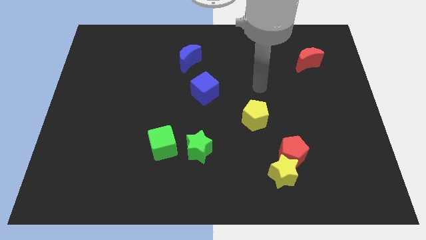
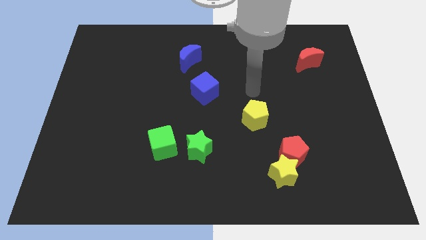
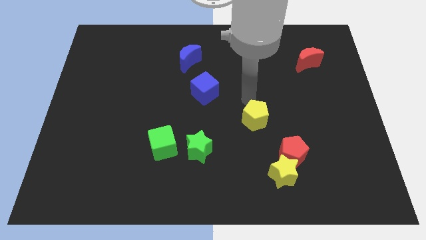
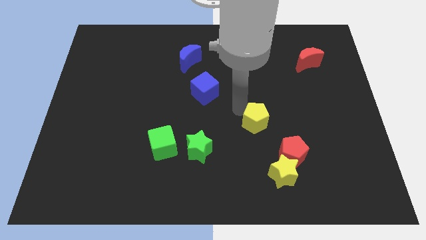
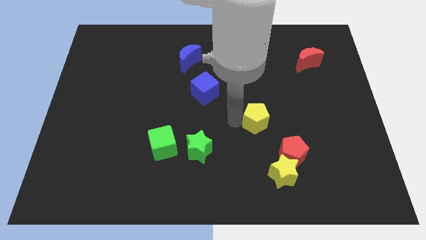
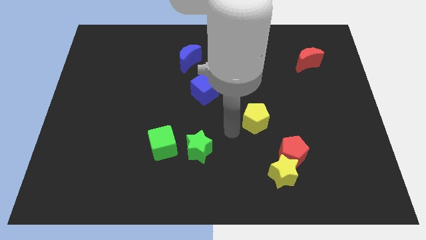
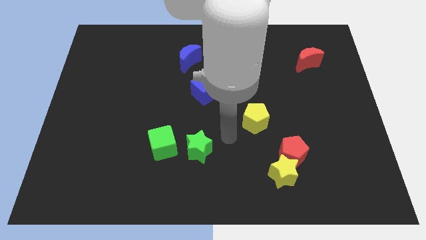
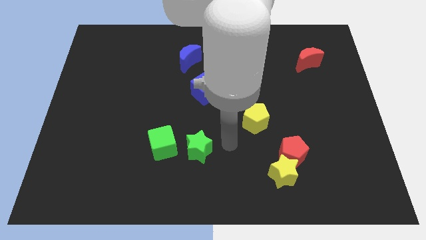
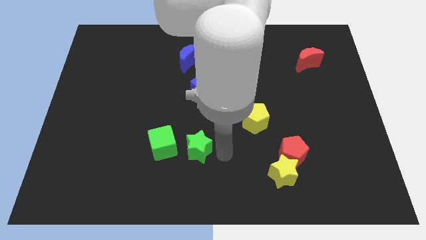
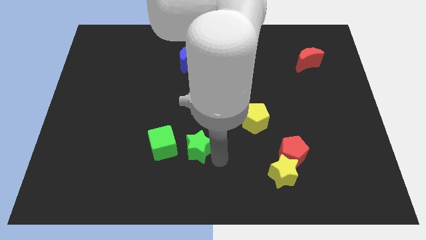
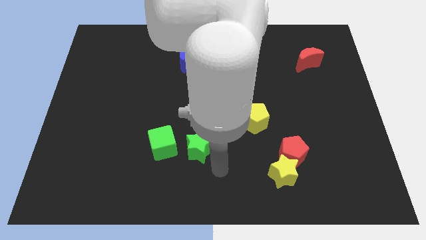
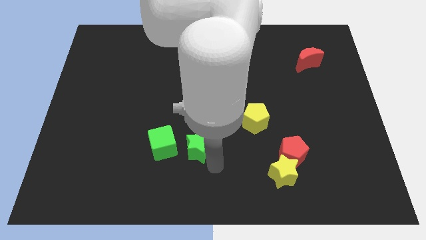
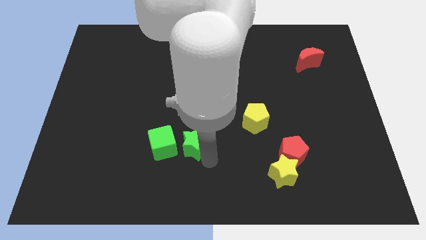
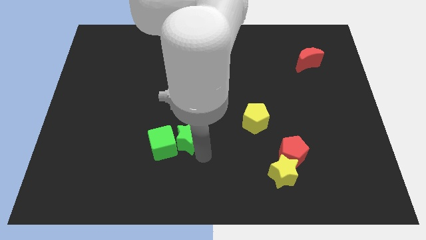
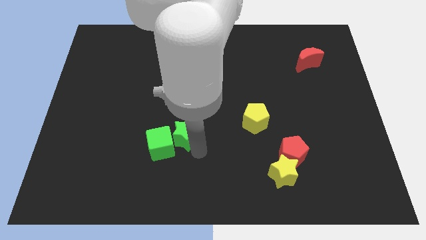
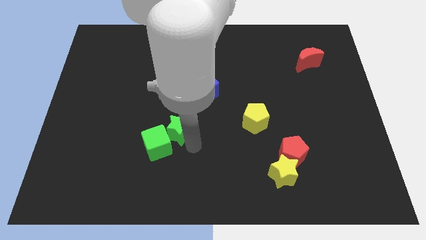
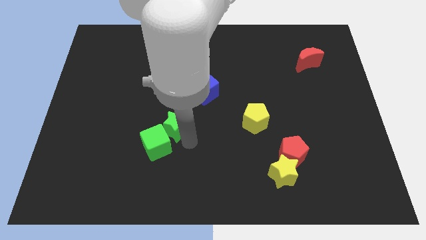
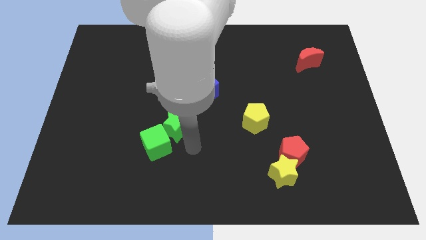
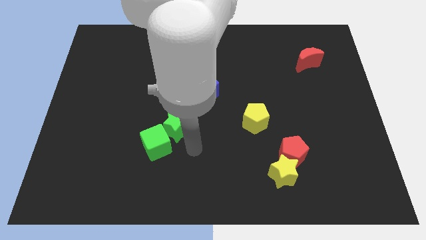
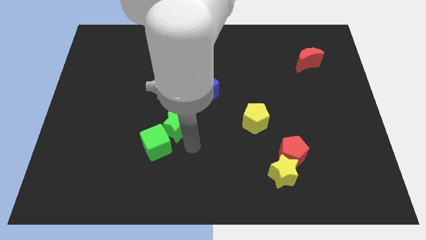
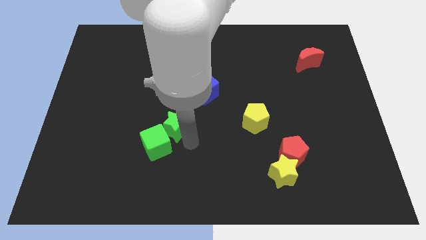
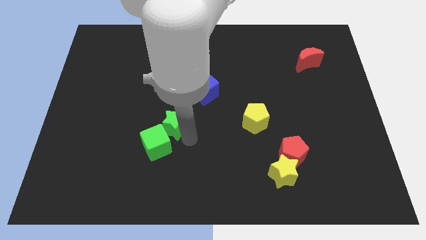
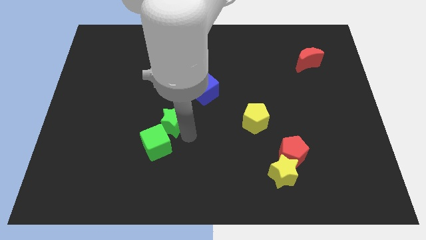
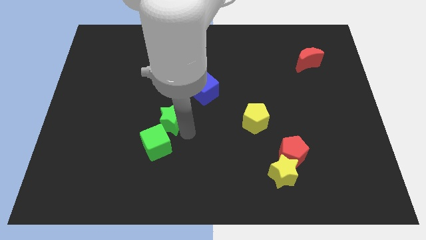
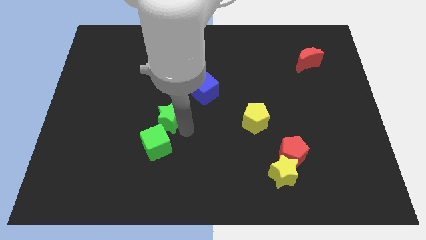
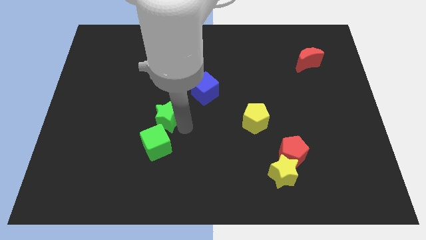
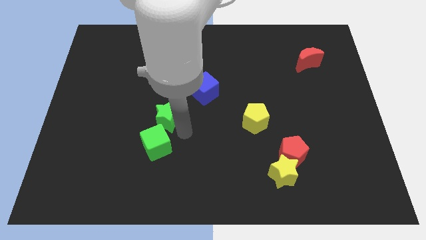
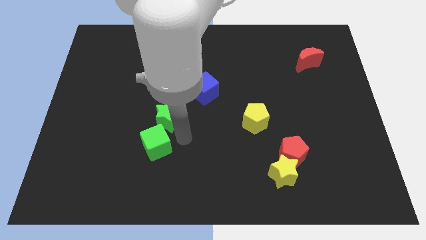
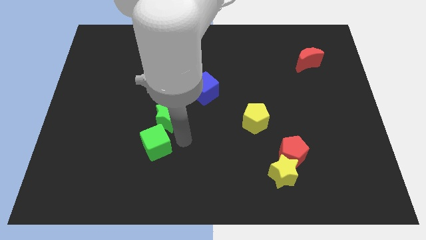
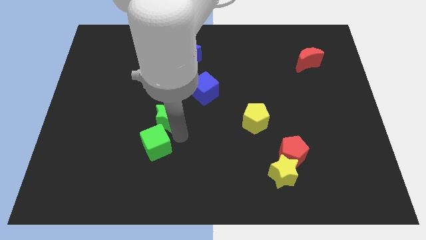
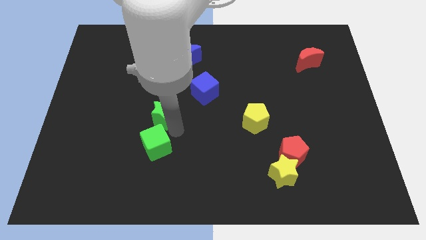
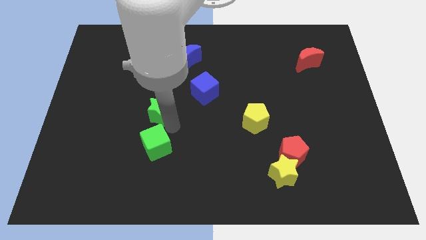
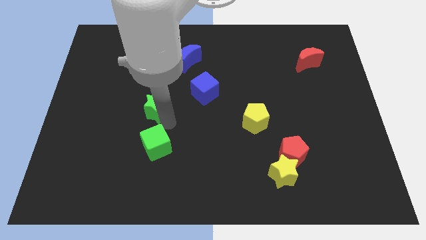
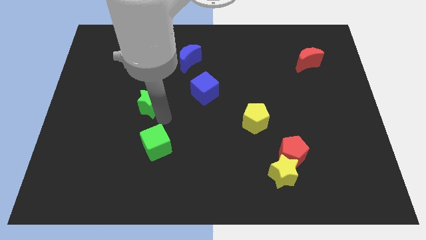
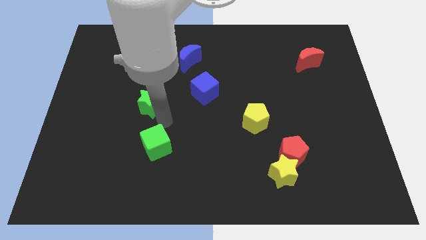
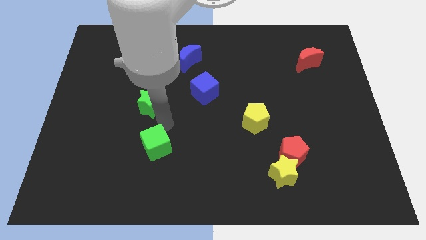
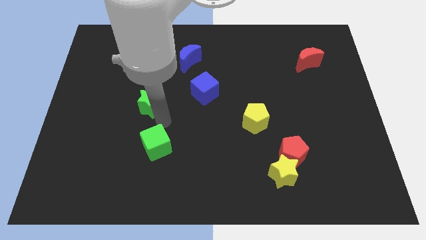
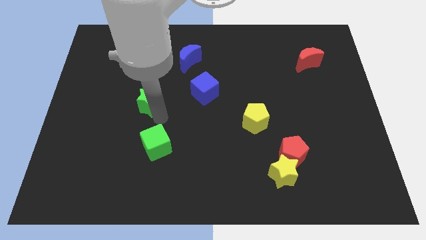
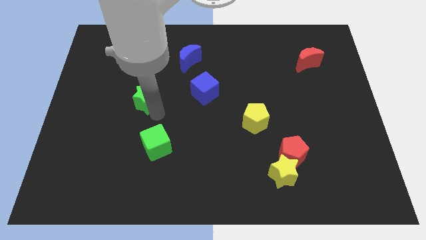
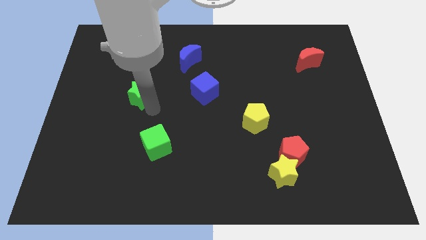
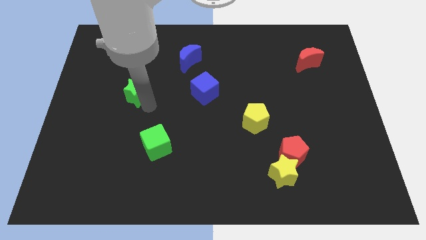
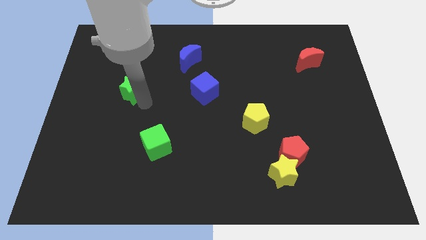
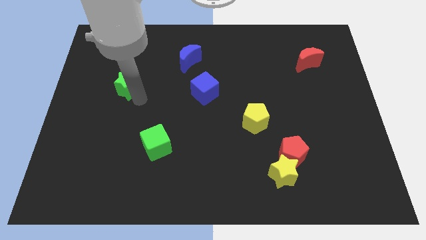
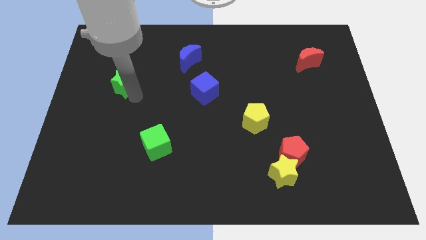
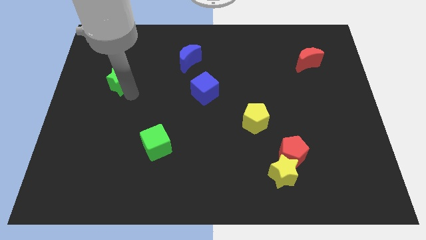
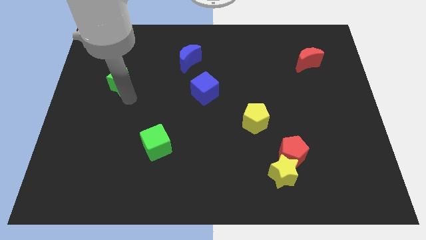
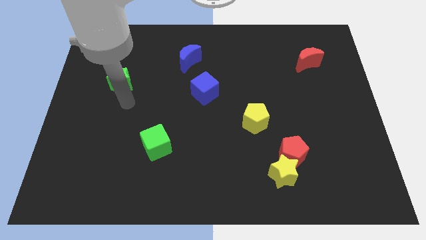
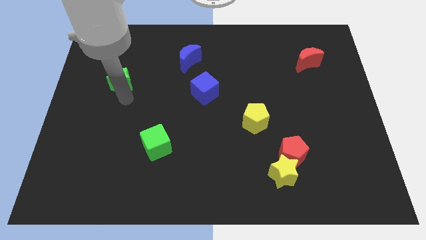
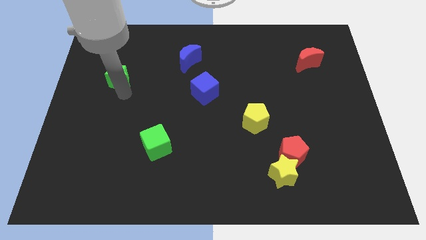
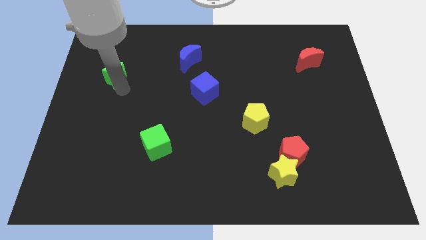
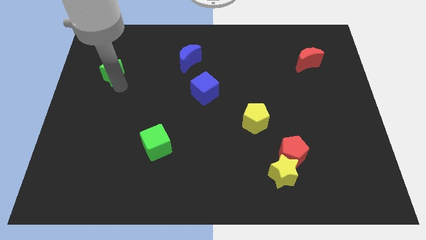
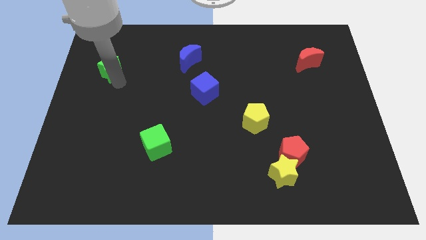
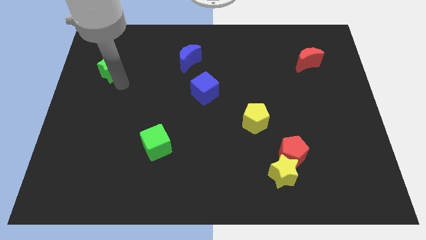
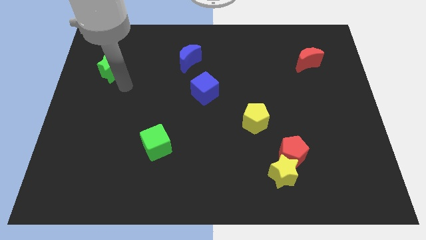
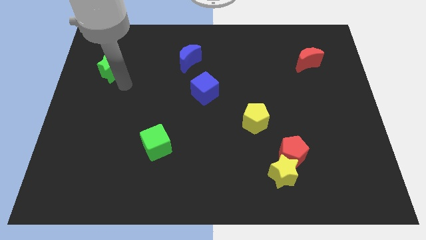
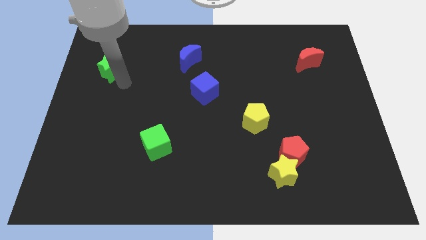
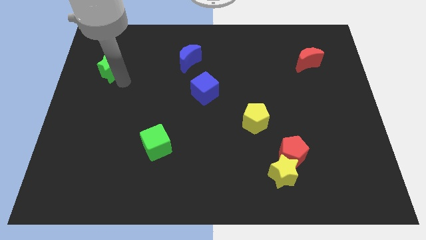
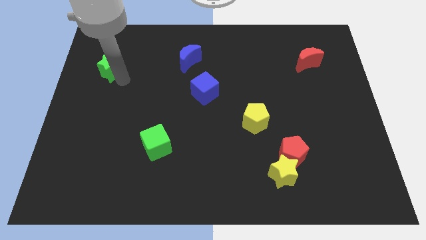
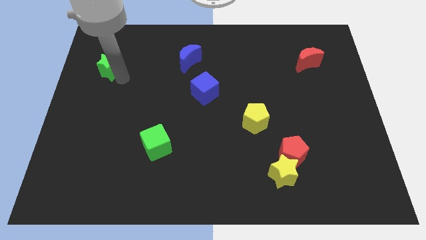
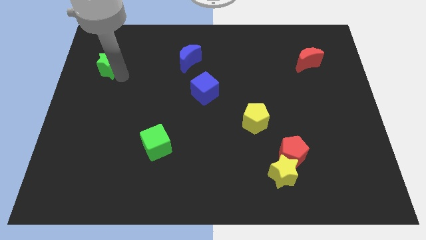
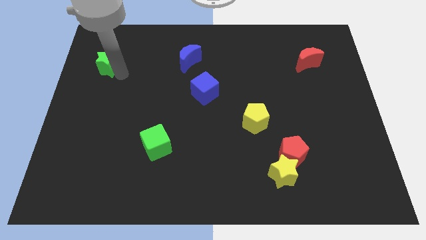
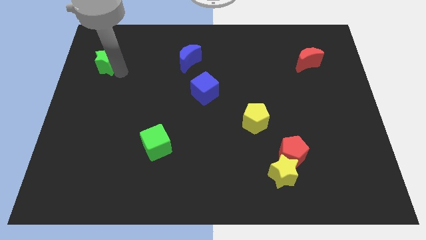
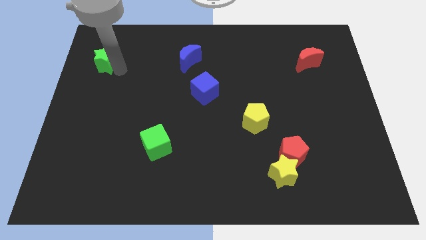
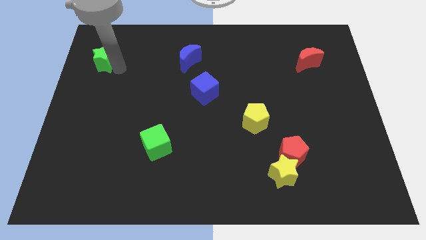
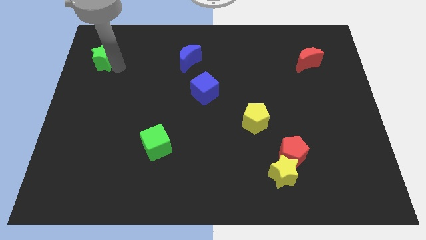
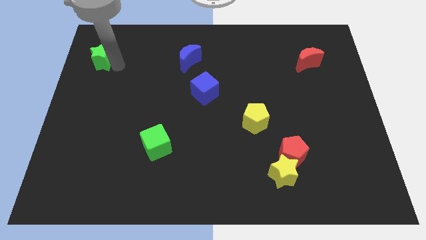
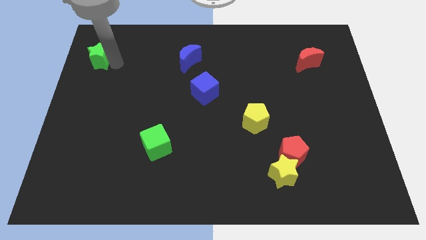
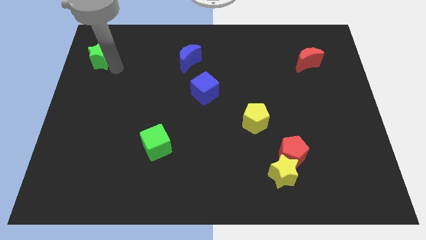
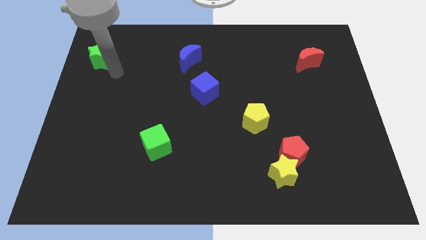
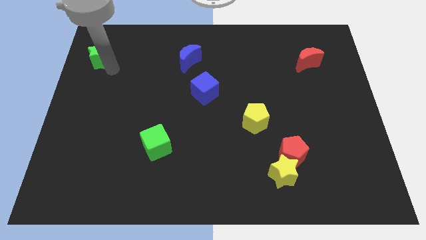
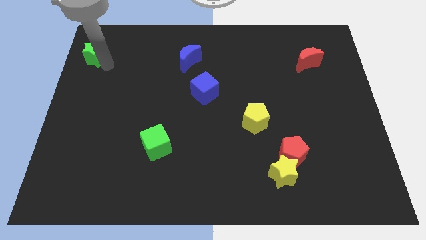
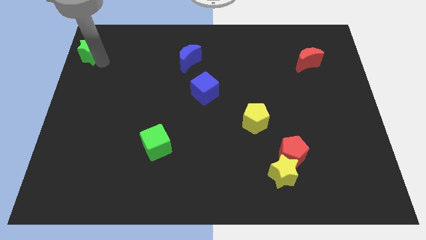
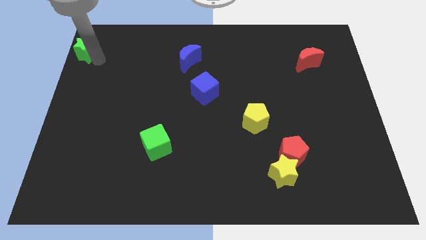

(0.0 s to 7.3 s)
push the green star to the top left of the board
